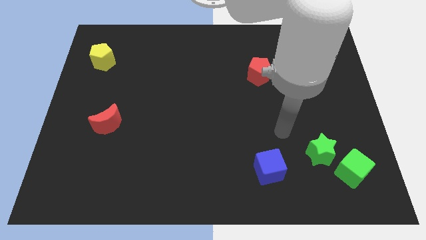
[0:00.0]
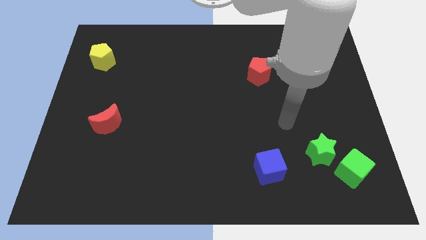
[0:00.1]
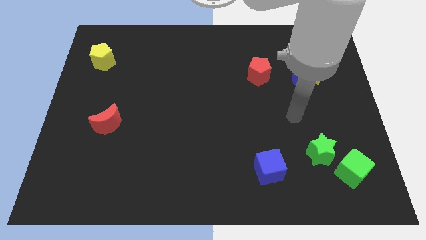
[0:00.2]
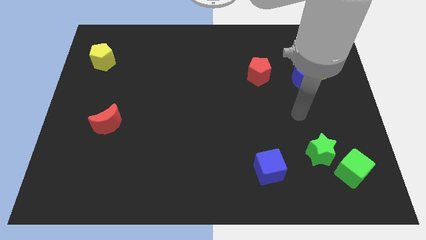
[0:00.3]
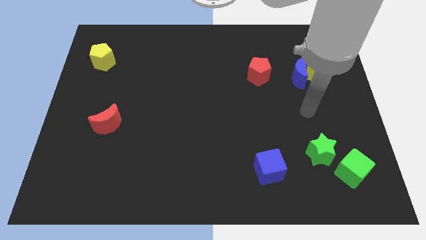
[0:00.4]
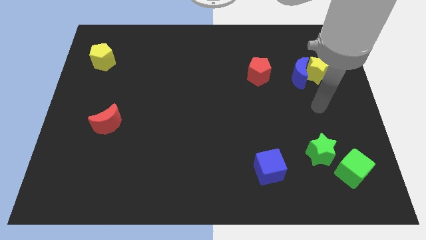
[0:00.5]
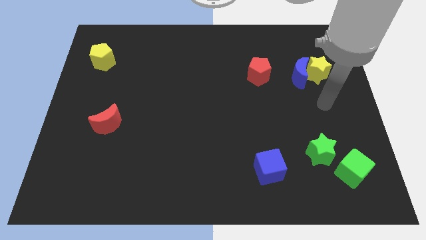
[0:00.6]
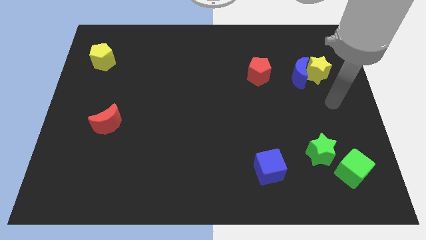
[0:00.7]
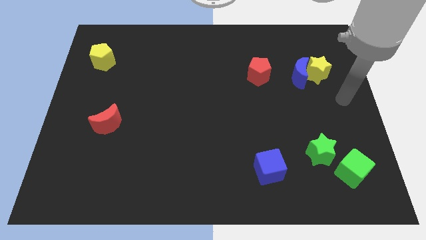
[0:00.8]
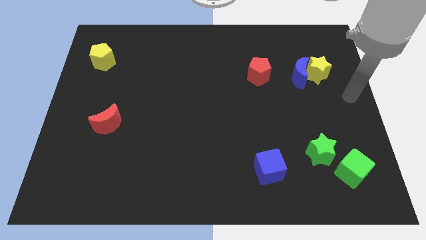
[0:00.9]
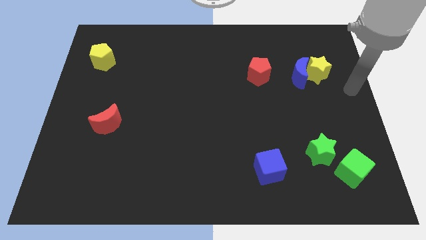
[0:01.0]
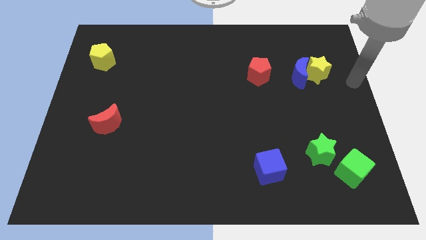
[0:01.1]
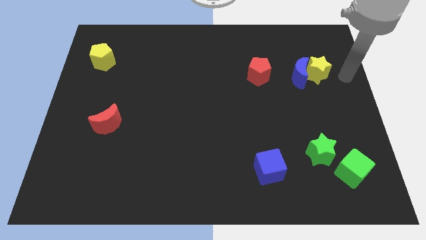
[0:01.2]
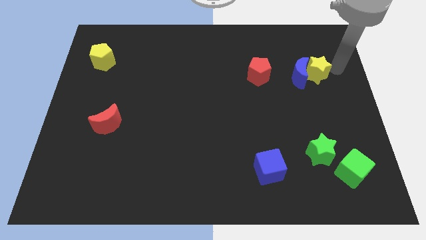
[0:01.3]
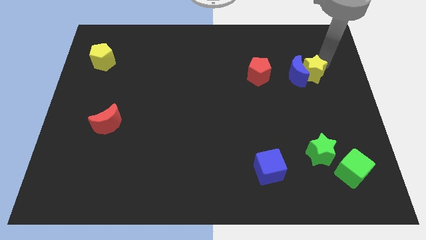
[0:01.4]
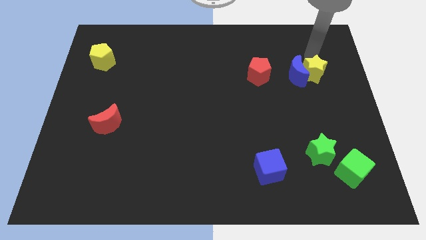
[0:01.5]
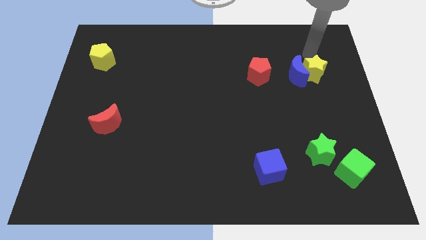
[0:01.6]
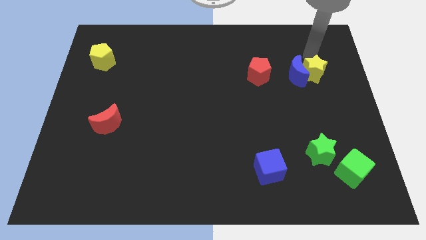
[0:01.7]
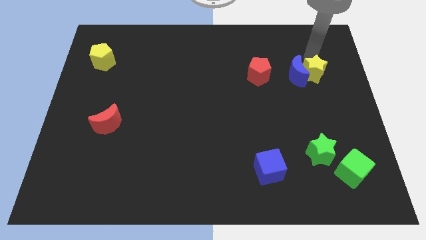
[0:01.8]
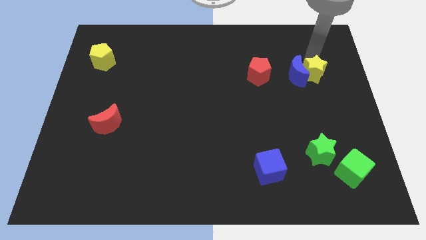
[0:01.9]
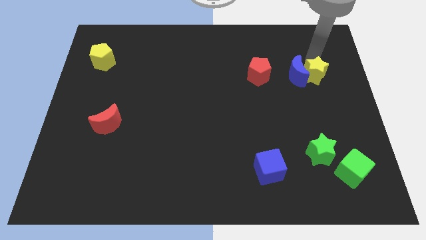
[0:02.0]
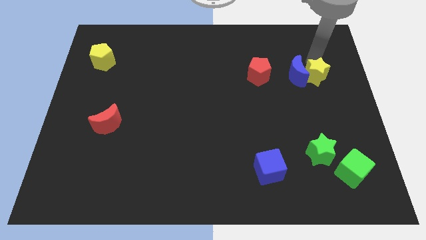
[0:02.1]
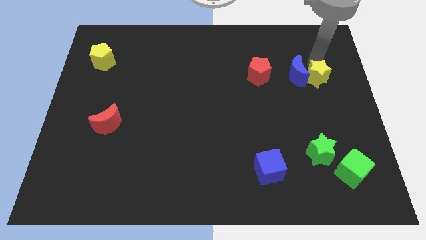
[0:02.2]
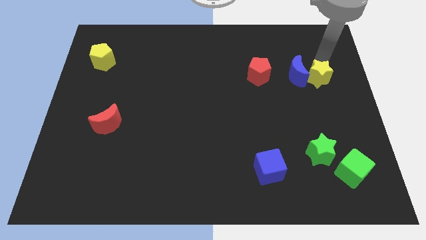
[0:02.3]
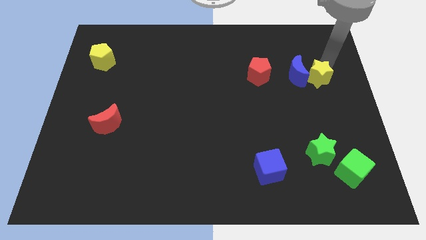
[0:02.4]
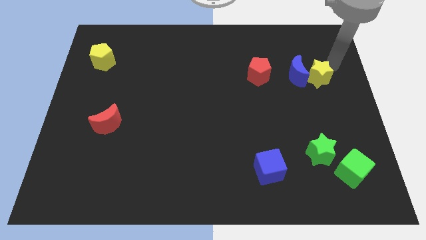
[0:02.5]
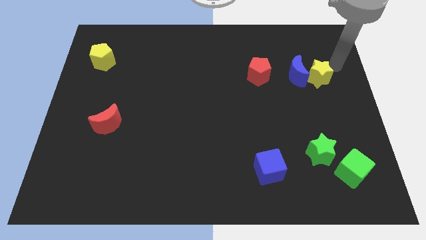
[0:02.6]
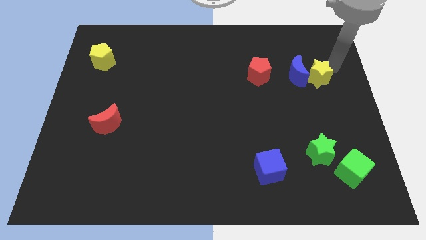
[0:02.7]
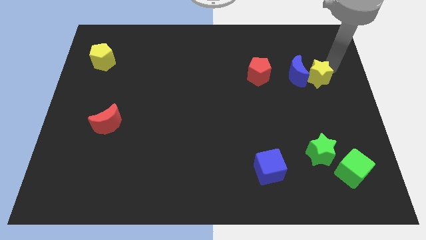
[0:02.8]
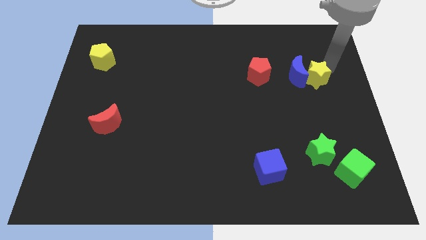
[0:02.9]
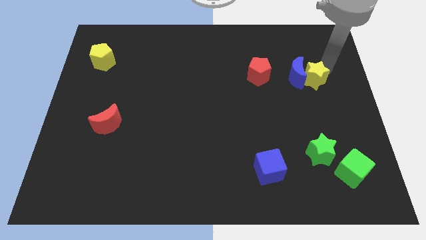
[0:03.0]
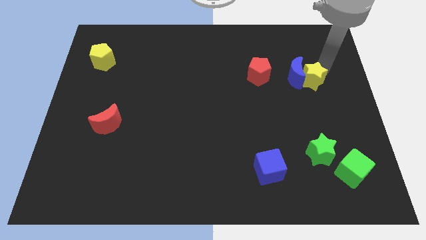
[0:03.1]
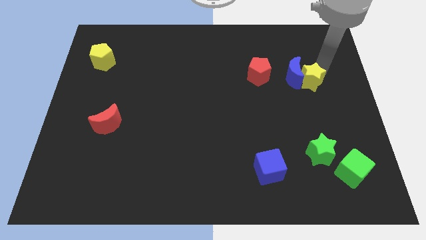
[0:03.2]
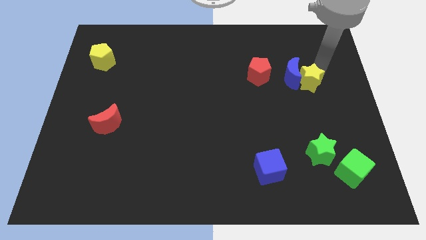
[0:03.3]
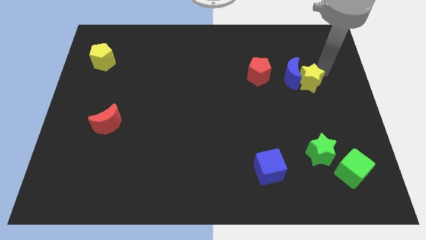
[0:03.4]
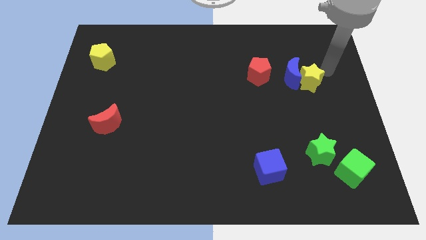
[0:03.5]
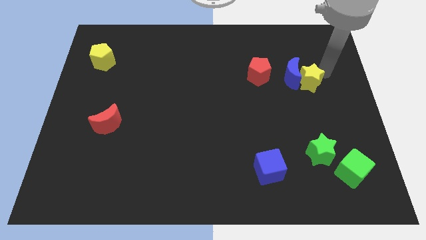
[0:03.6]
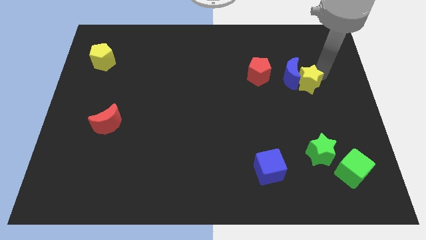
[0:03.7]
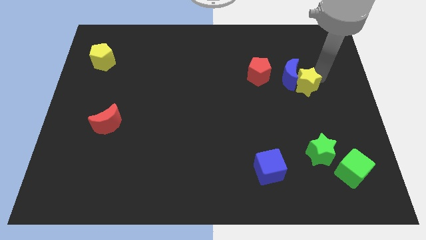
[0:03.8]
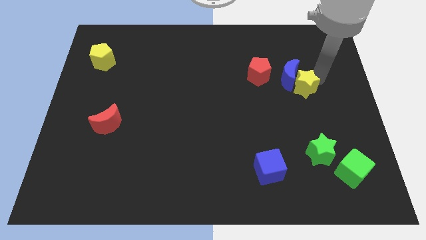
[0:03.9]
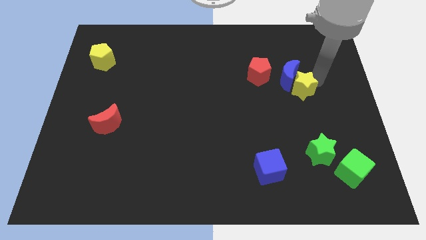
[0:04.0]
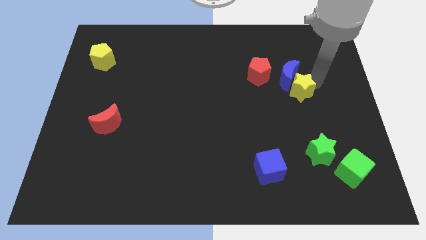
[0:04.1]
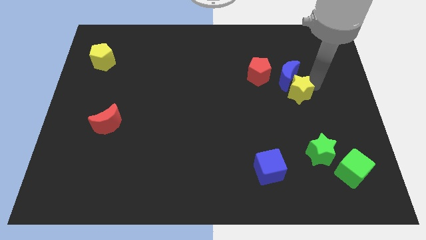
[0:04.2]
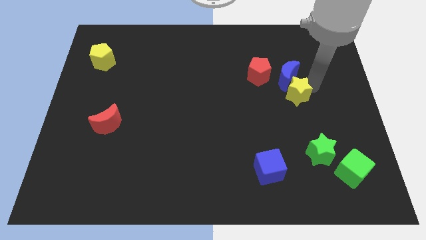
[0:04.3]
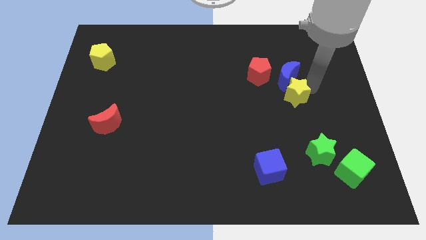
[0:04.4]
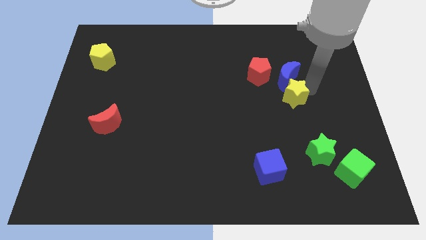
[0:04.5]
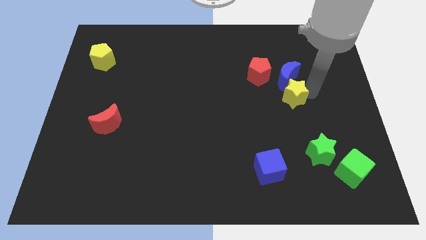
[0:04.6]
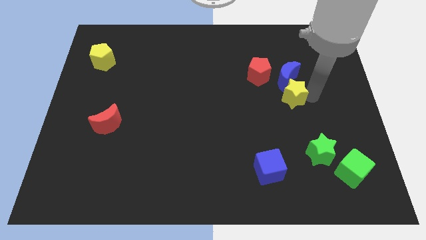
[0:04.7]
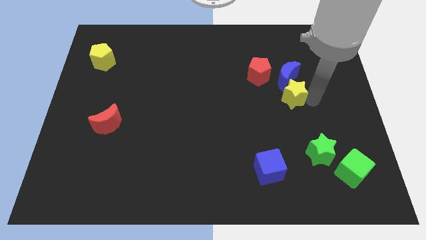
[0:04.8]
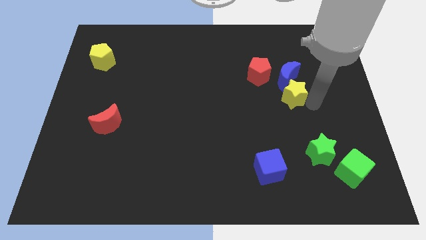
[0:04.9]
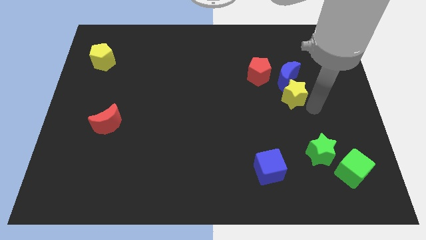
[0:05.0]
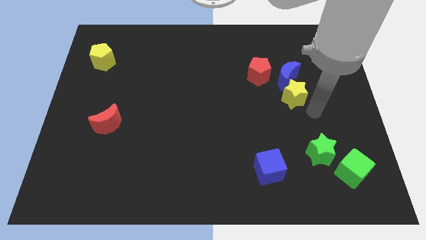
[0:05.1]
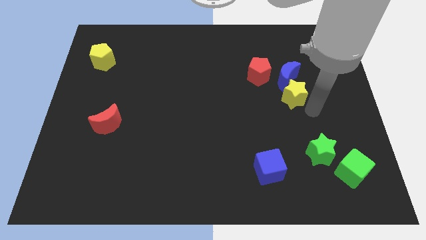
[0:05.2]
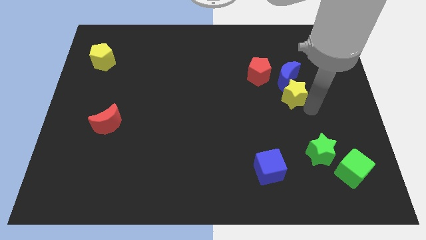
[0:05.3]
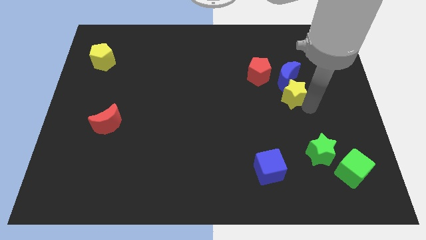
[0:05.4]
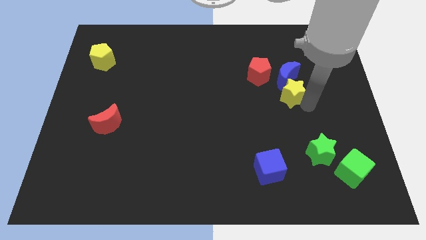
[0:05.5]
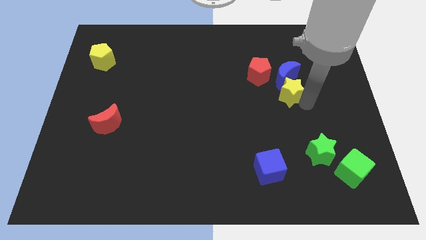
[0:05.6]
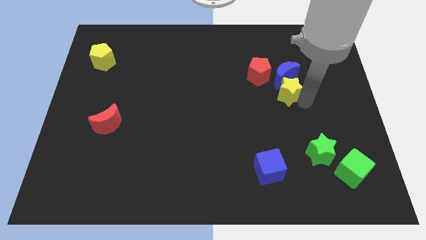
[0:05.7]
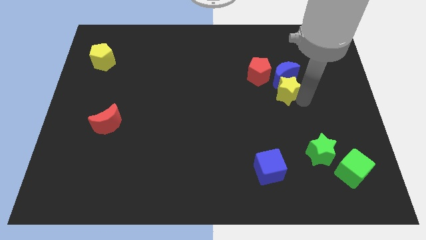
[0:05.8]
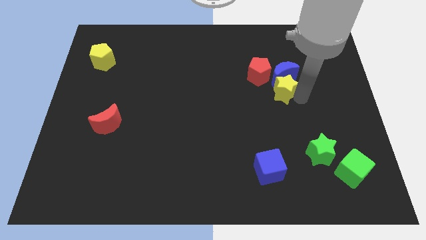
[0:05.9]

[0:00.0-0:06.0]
push the yellow star left somewhat

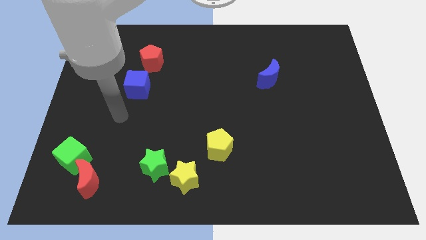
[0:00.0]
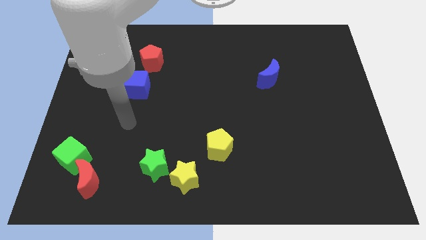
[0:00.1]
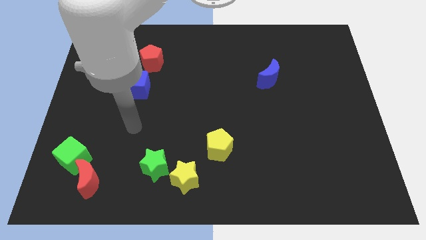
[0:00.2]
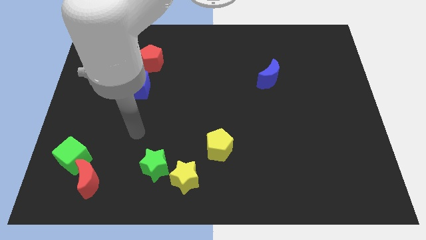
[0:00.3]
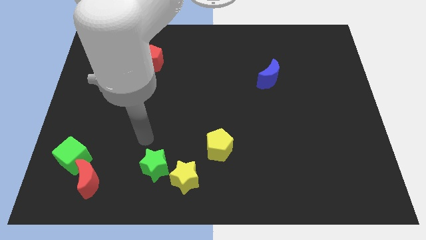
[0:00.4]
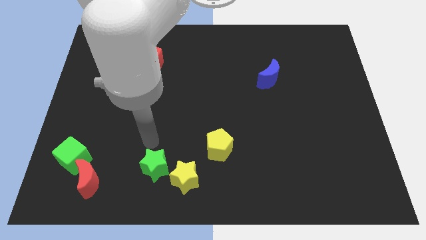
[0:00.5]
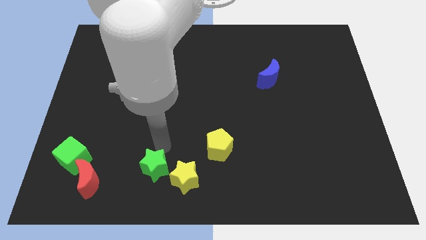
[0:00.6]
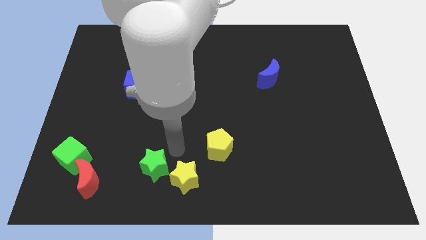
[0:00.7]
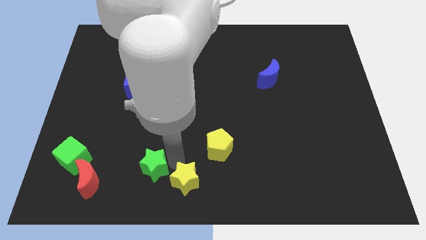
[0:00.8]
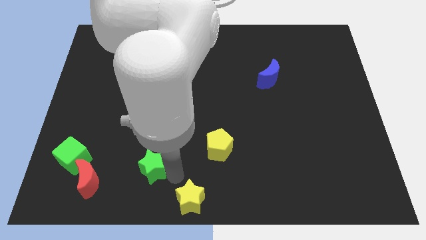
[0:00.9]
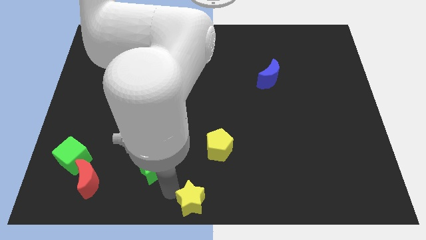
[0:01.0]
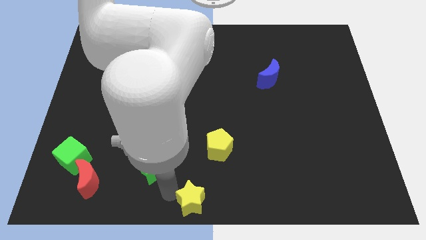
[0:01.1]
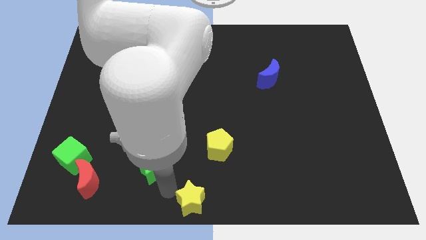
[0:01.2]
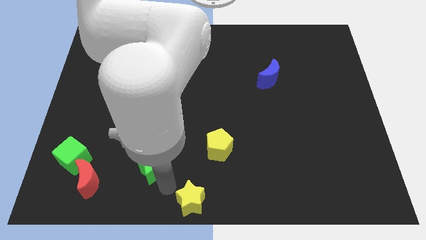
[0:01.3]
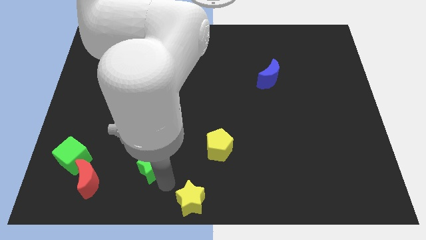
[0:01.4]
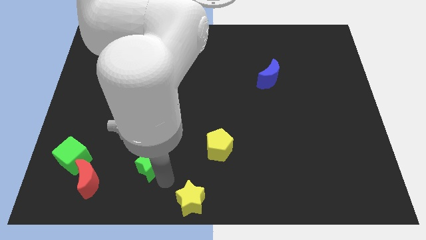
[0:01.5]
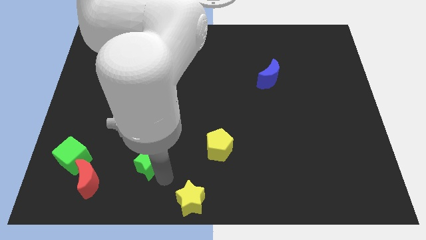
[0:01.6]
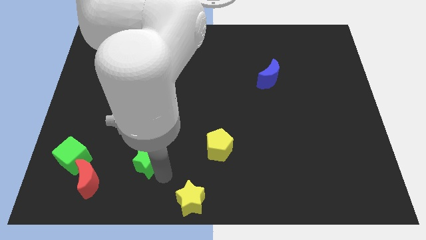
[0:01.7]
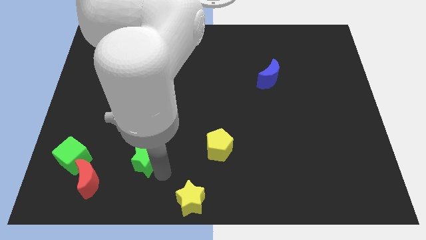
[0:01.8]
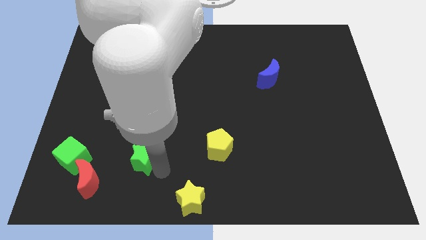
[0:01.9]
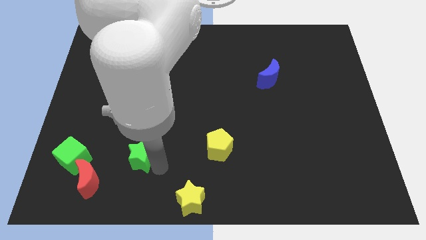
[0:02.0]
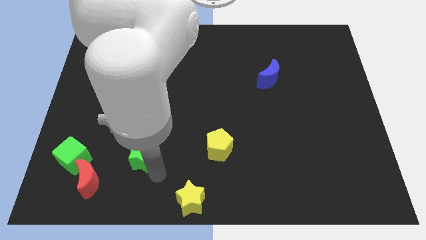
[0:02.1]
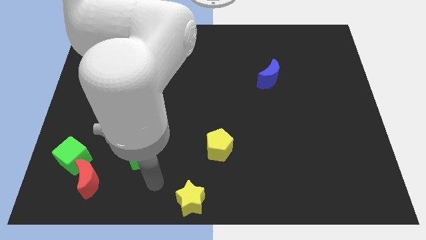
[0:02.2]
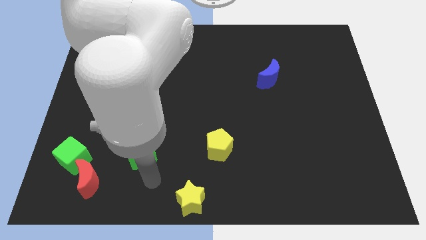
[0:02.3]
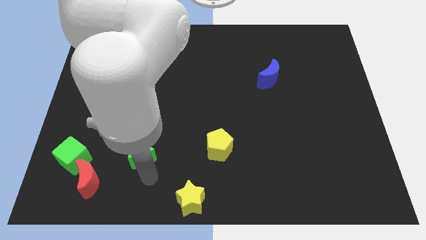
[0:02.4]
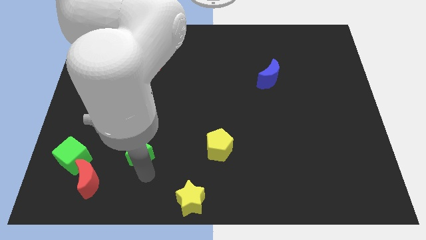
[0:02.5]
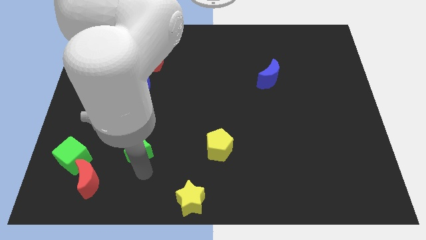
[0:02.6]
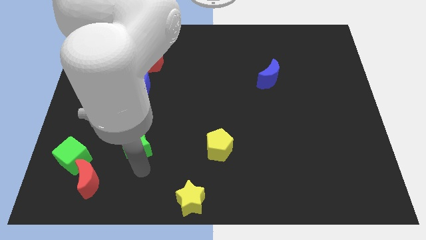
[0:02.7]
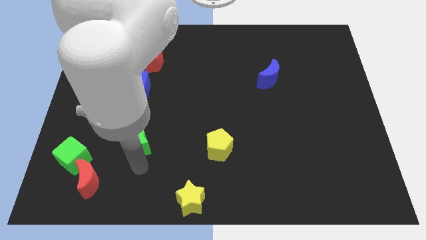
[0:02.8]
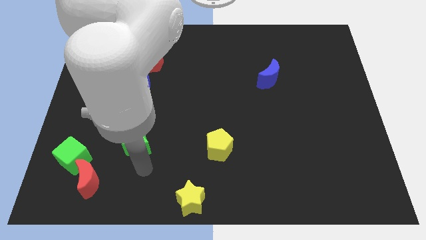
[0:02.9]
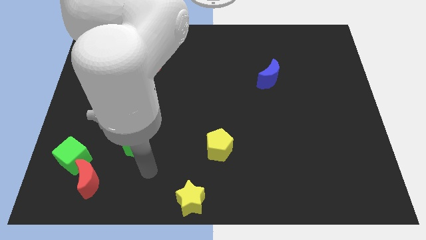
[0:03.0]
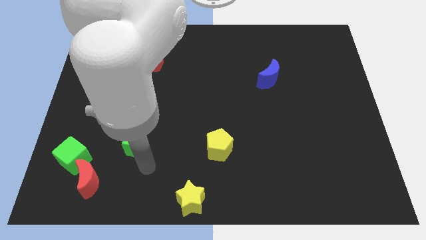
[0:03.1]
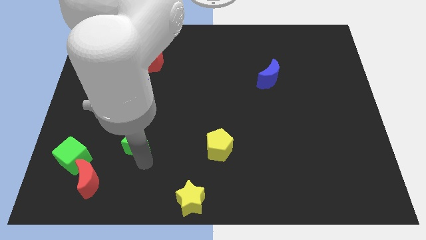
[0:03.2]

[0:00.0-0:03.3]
push the green star a little bit up and to the left diagonally
